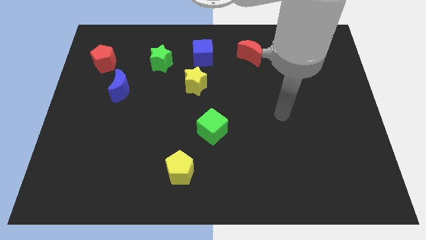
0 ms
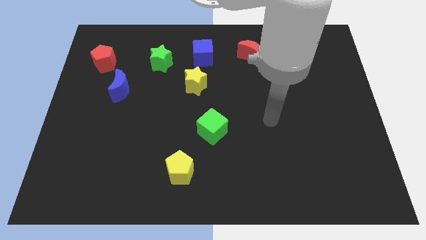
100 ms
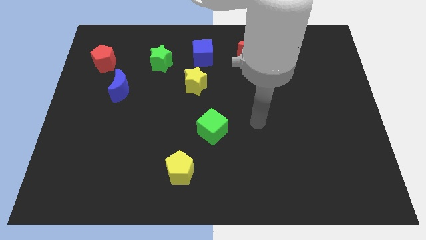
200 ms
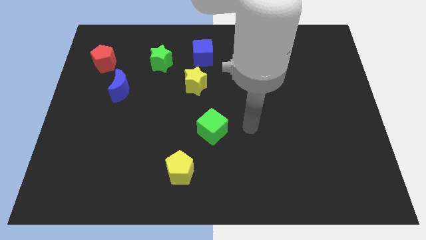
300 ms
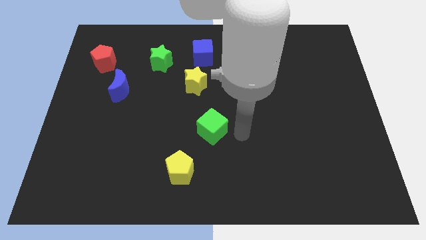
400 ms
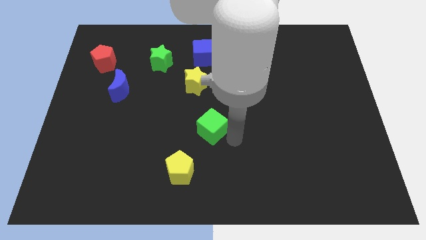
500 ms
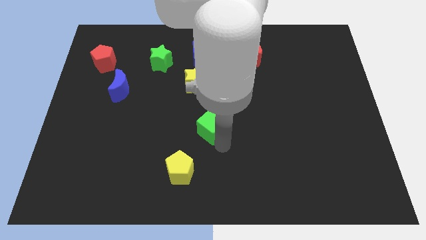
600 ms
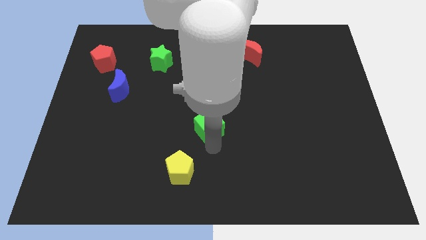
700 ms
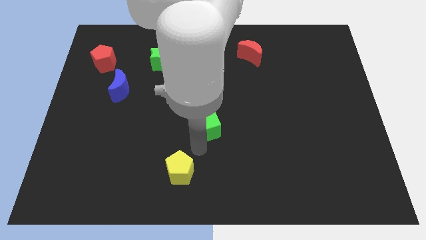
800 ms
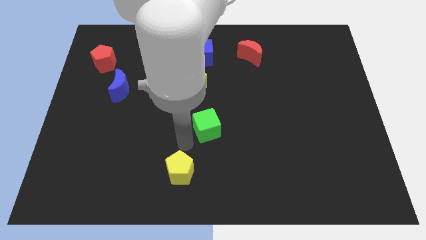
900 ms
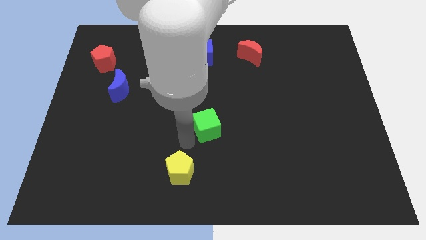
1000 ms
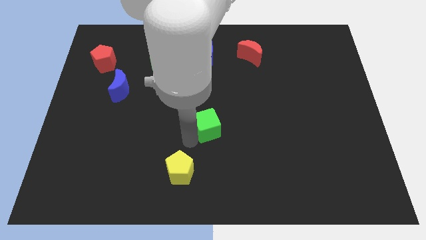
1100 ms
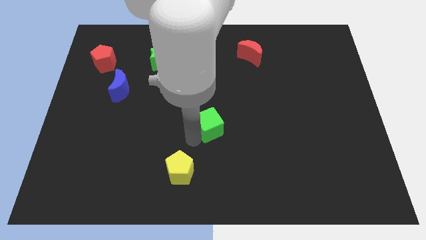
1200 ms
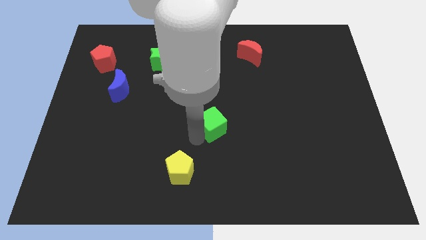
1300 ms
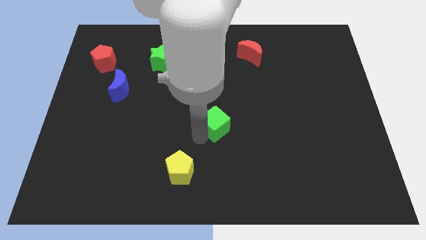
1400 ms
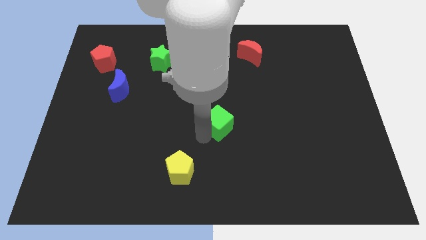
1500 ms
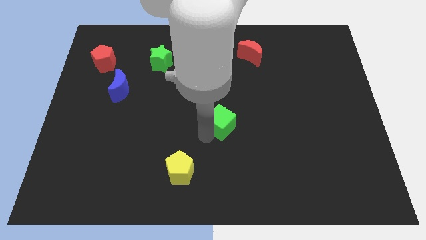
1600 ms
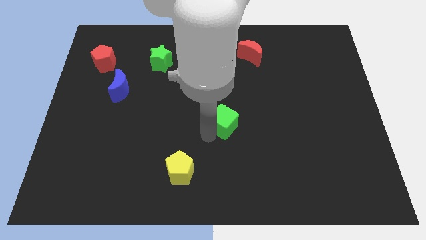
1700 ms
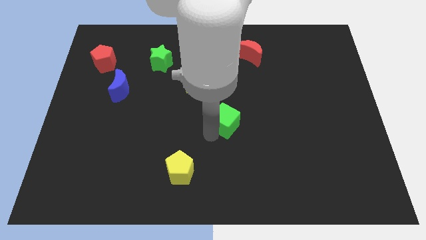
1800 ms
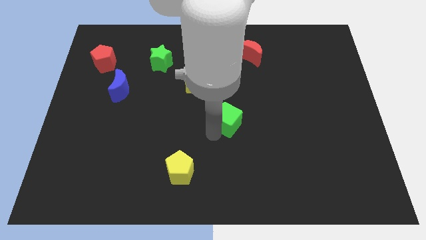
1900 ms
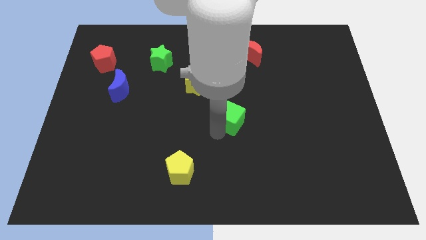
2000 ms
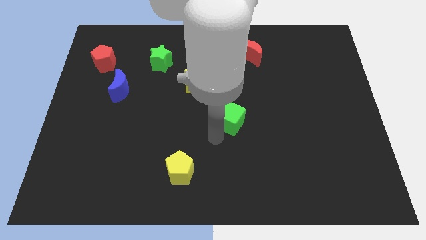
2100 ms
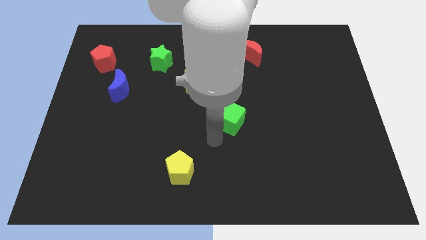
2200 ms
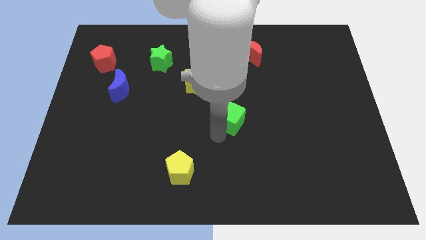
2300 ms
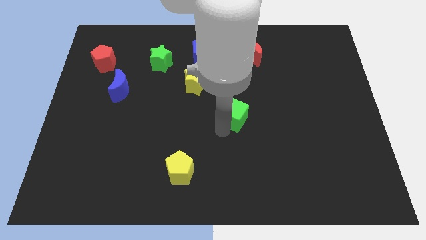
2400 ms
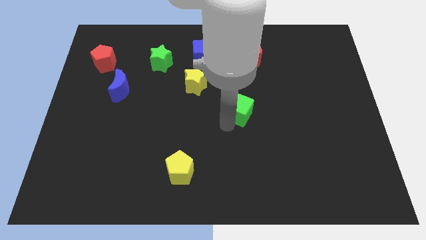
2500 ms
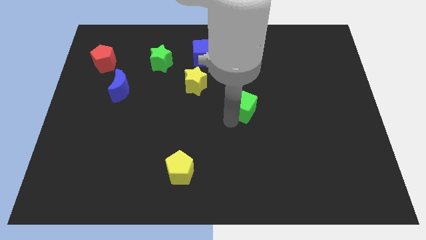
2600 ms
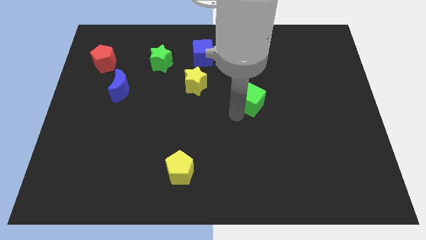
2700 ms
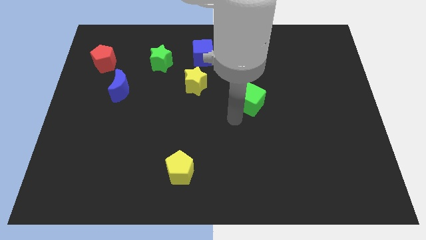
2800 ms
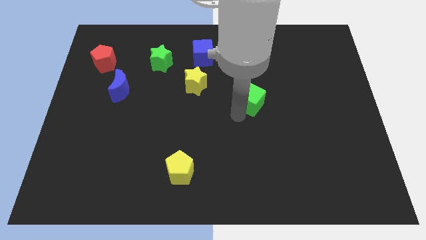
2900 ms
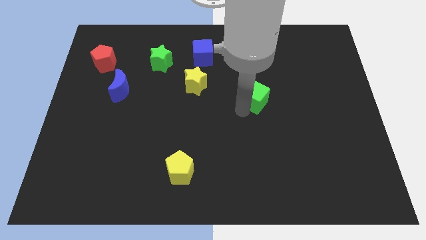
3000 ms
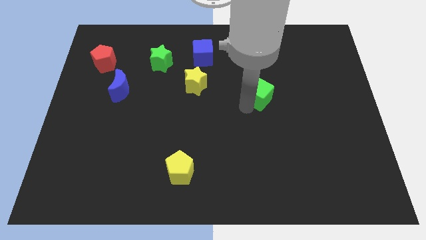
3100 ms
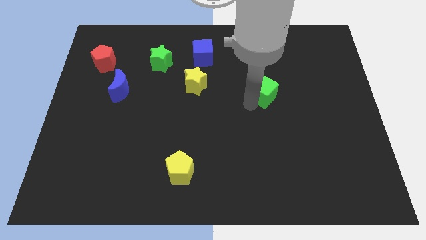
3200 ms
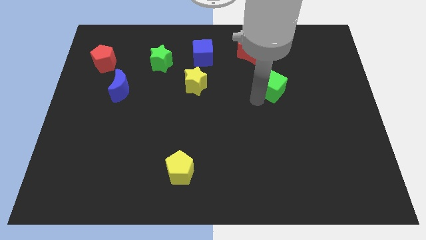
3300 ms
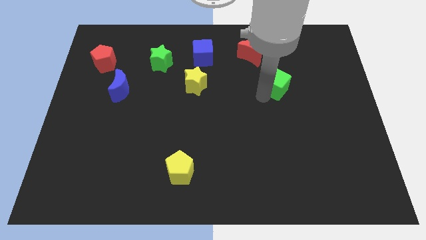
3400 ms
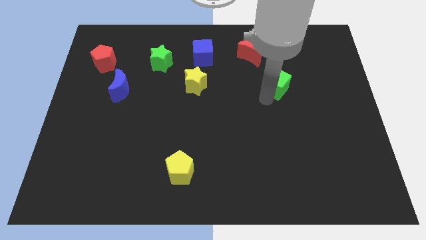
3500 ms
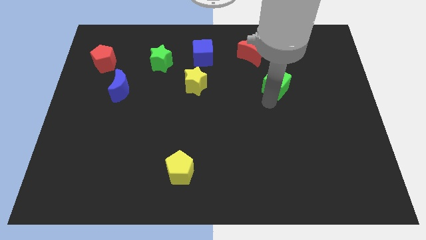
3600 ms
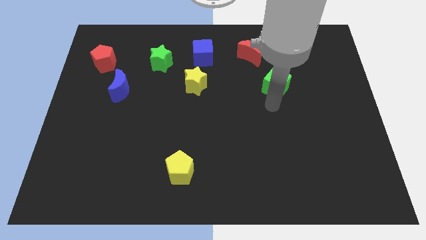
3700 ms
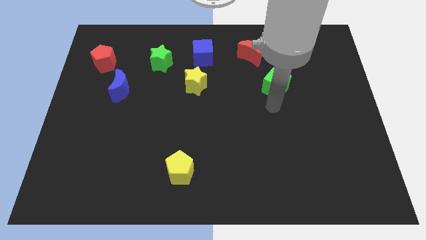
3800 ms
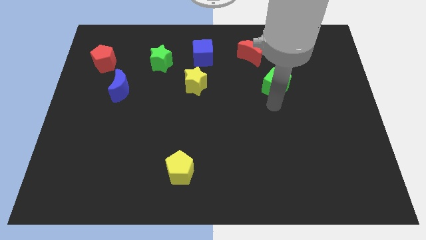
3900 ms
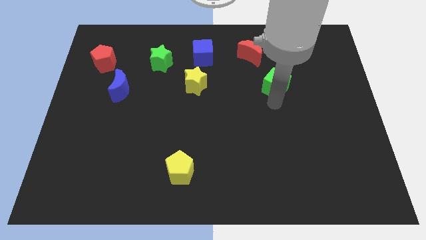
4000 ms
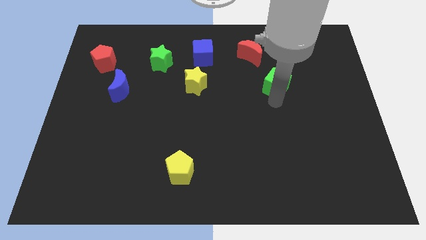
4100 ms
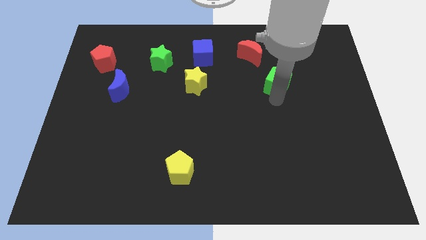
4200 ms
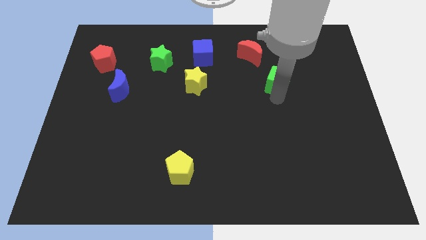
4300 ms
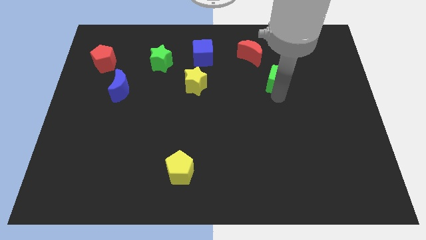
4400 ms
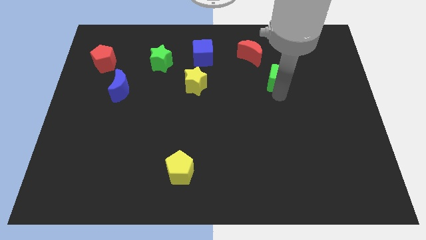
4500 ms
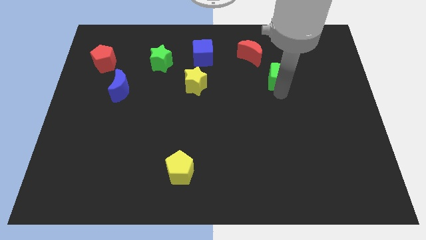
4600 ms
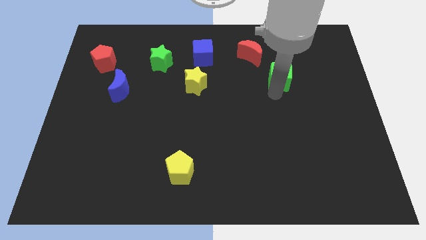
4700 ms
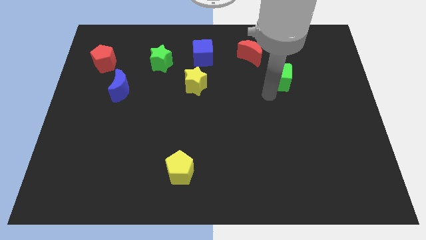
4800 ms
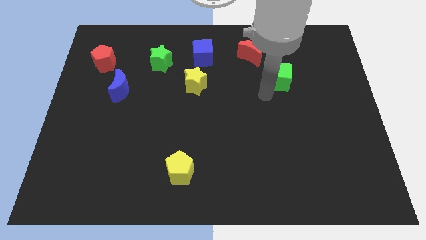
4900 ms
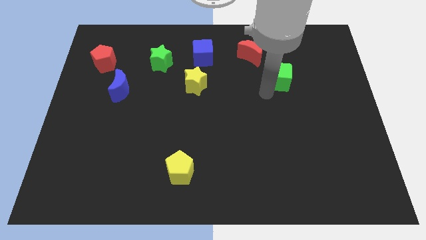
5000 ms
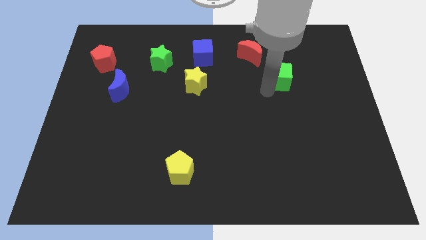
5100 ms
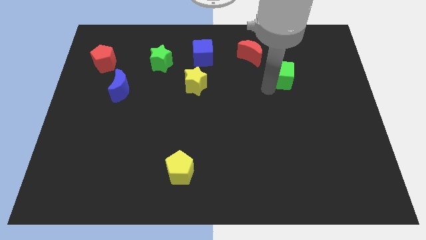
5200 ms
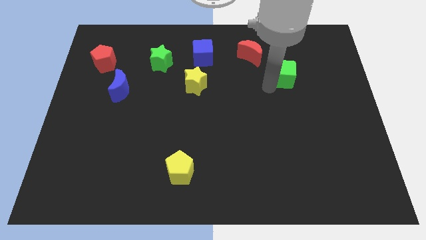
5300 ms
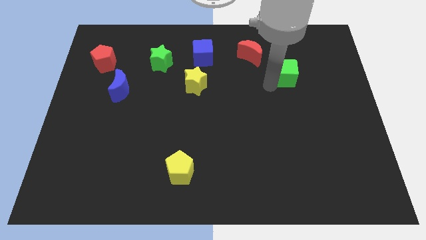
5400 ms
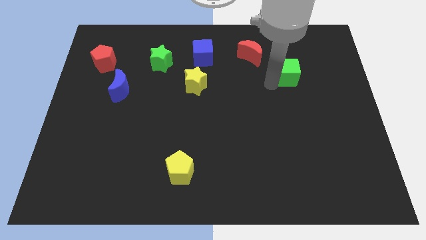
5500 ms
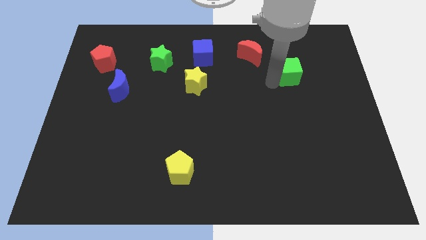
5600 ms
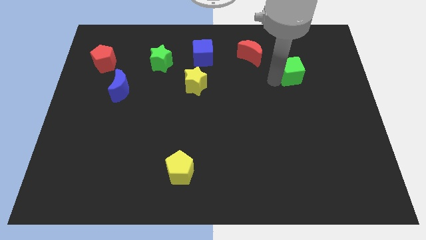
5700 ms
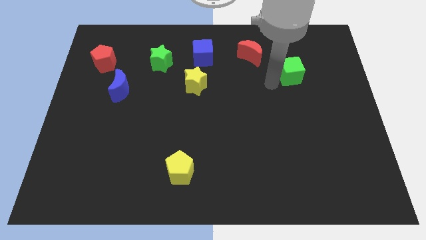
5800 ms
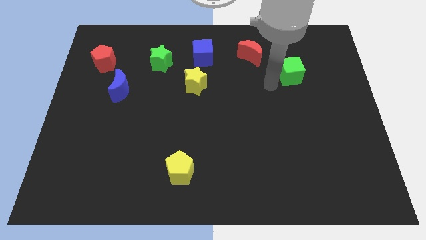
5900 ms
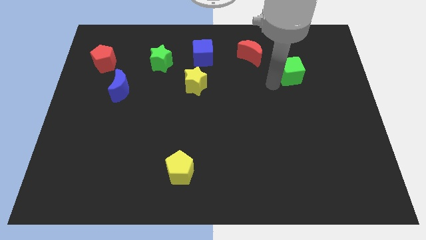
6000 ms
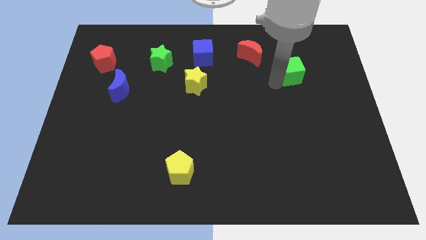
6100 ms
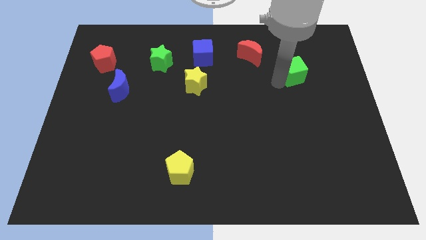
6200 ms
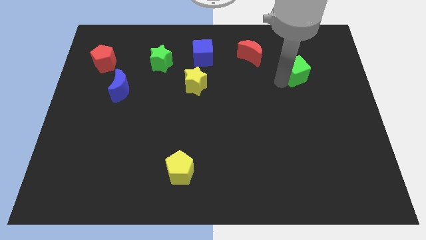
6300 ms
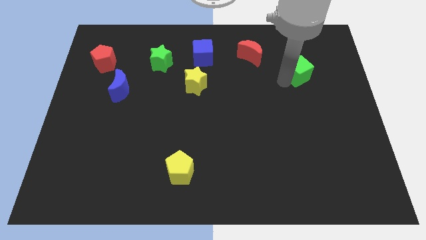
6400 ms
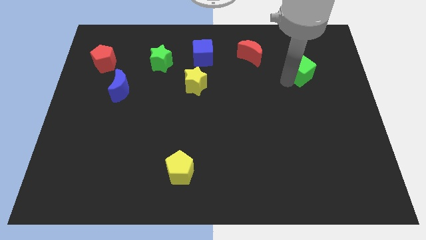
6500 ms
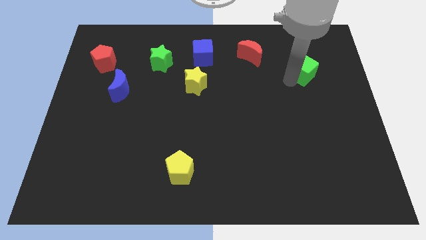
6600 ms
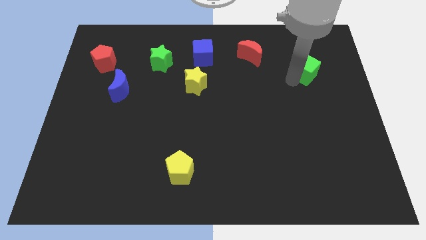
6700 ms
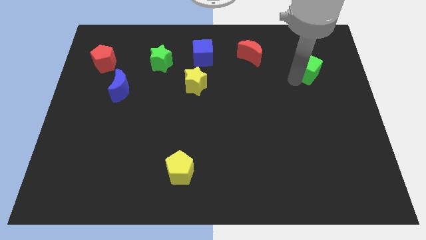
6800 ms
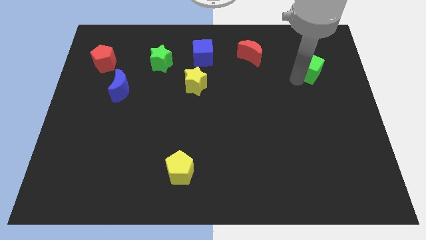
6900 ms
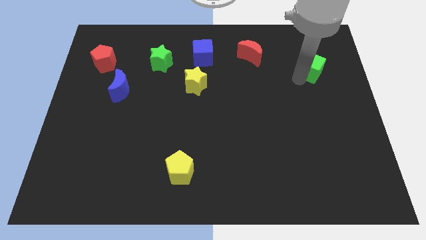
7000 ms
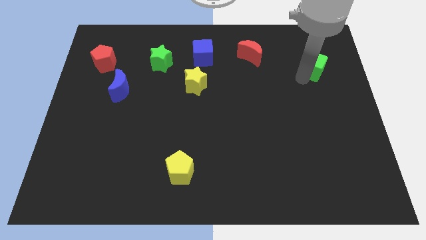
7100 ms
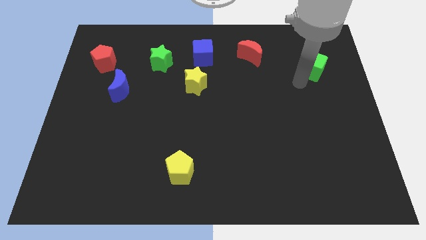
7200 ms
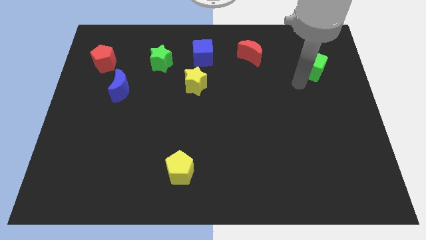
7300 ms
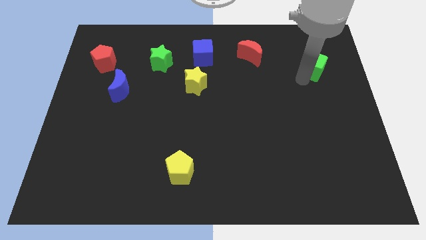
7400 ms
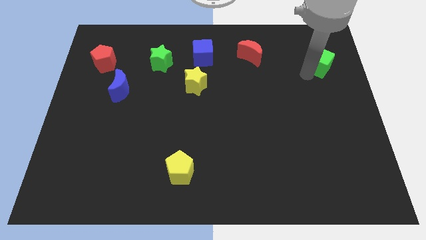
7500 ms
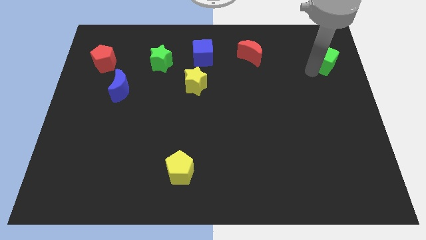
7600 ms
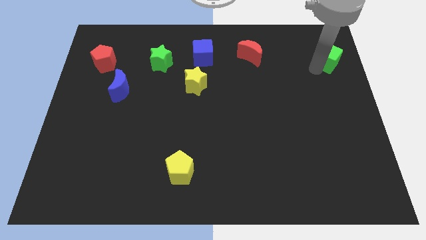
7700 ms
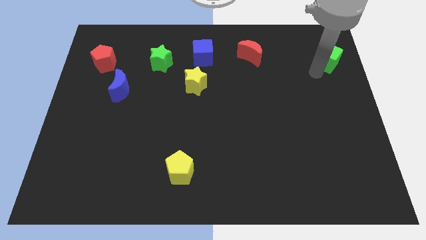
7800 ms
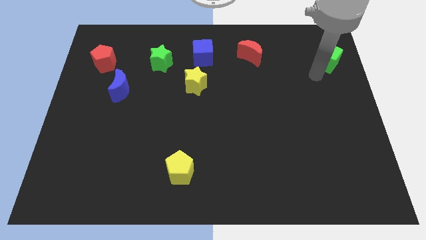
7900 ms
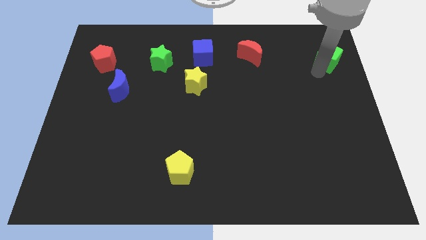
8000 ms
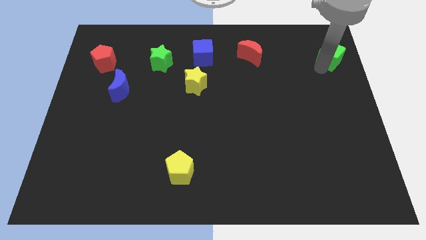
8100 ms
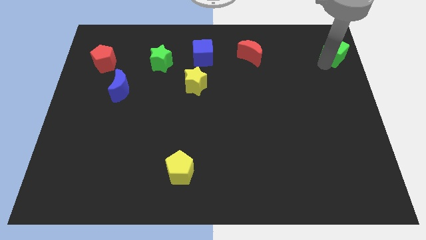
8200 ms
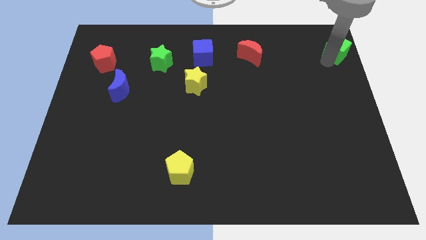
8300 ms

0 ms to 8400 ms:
slide the green cube to the top right of the board
